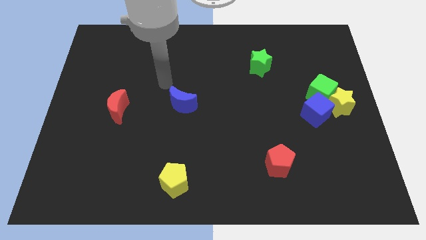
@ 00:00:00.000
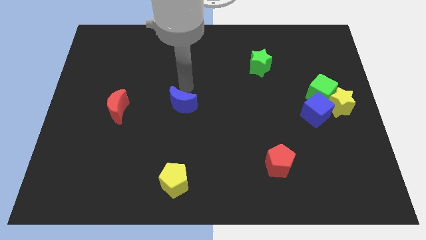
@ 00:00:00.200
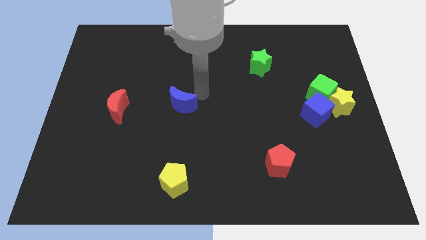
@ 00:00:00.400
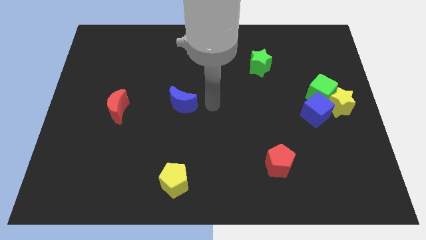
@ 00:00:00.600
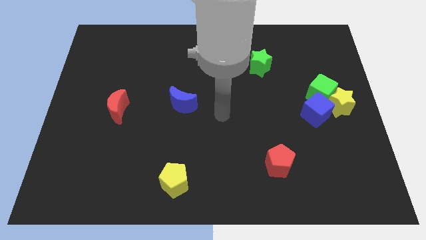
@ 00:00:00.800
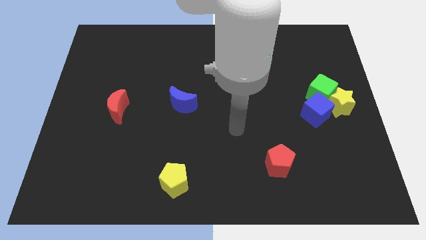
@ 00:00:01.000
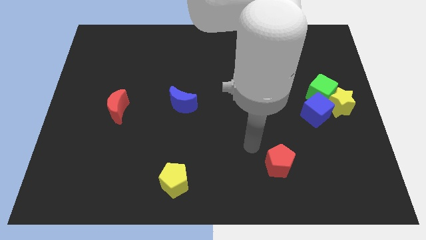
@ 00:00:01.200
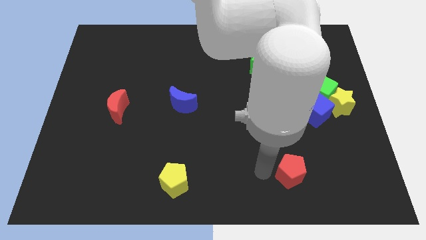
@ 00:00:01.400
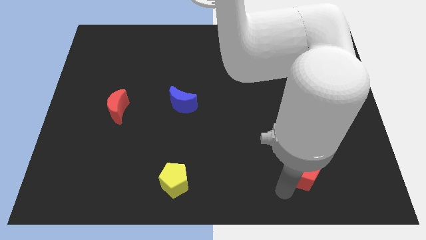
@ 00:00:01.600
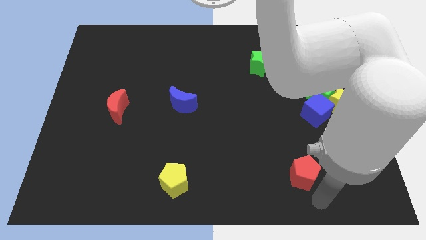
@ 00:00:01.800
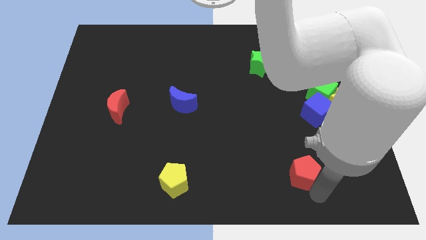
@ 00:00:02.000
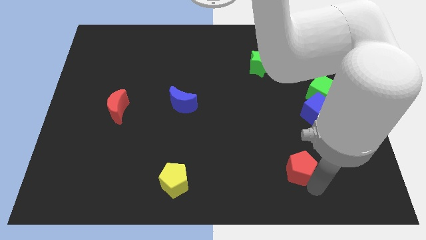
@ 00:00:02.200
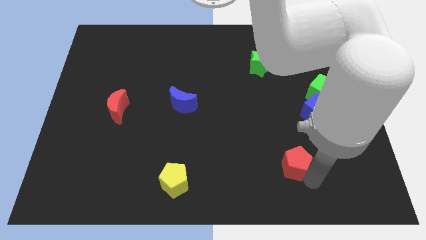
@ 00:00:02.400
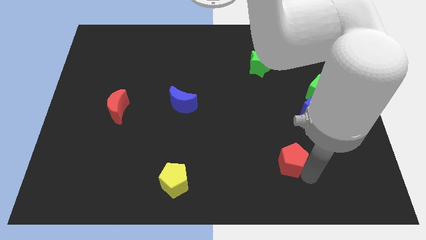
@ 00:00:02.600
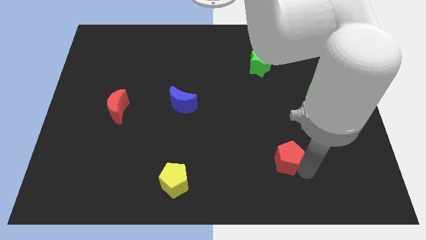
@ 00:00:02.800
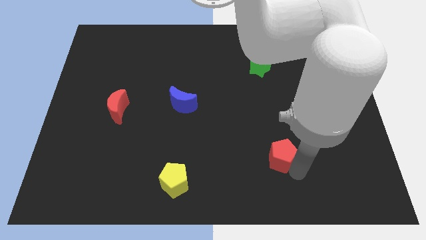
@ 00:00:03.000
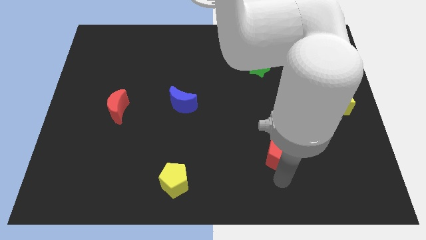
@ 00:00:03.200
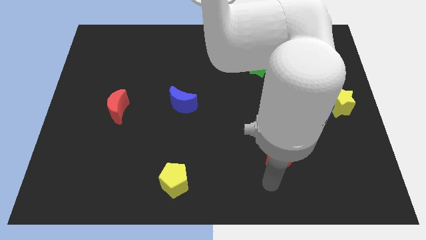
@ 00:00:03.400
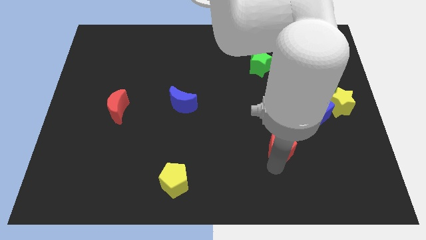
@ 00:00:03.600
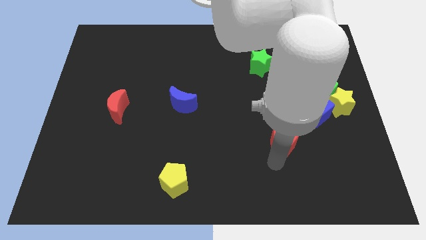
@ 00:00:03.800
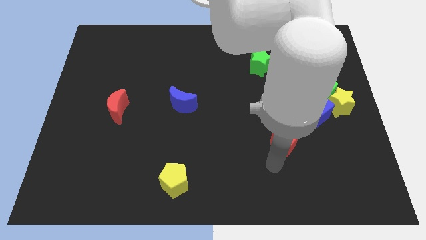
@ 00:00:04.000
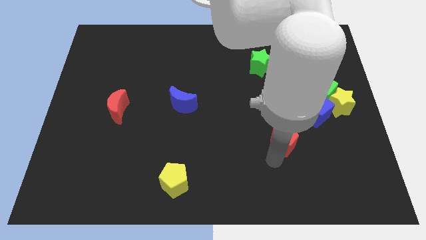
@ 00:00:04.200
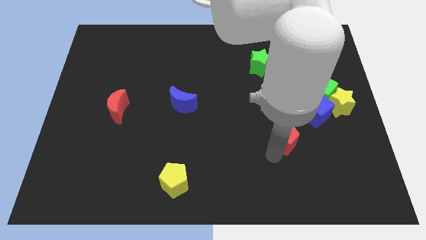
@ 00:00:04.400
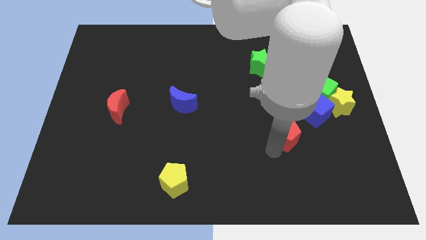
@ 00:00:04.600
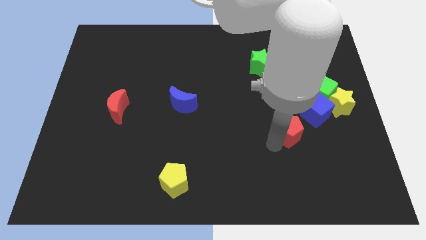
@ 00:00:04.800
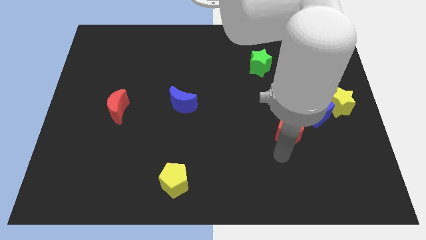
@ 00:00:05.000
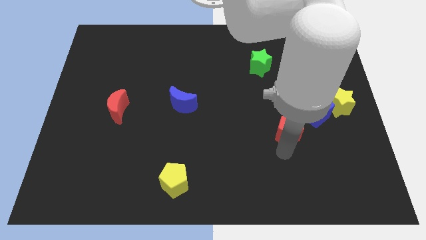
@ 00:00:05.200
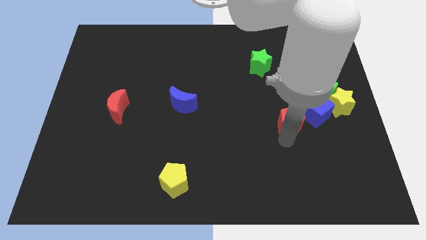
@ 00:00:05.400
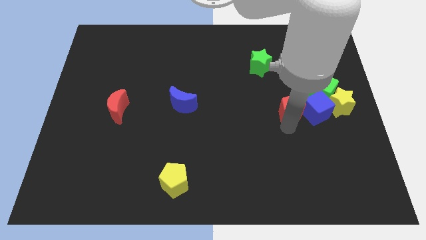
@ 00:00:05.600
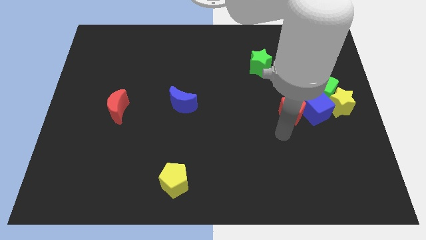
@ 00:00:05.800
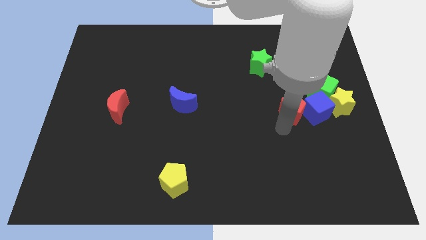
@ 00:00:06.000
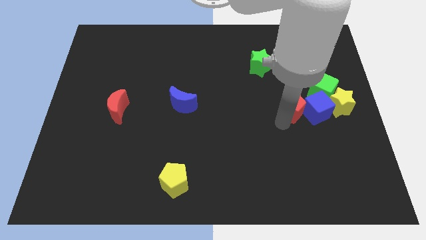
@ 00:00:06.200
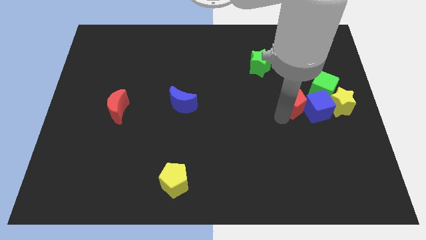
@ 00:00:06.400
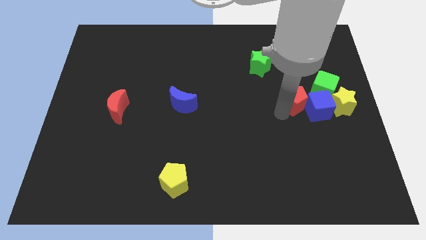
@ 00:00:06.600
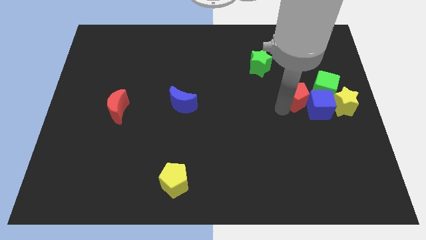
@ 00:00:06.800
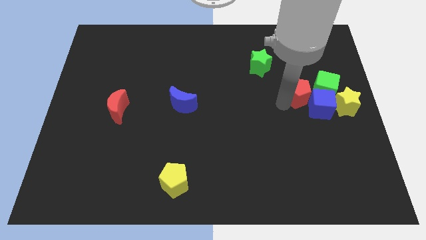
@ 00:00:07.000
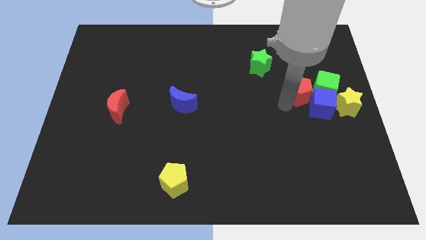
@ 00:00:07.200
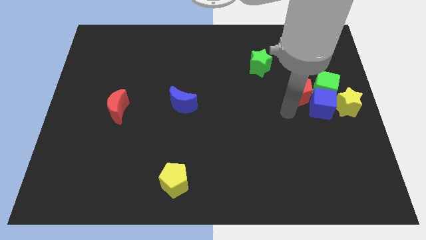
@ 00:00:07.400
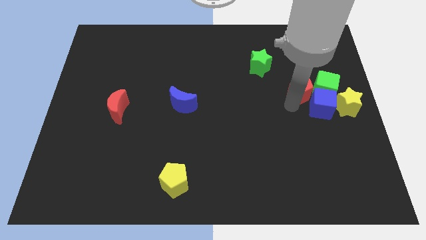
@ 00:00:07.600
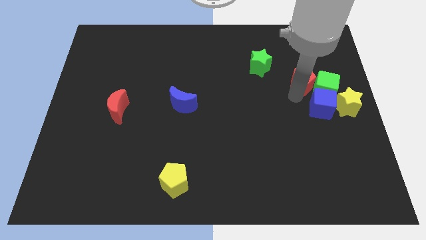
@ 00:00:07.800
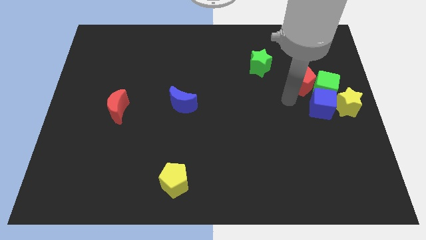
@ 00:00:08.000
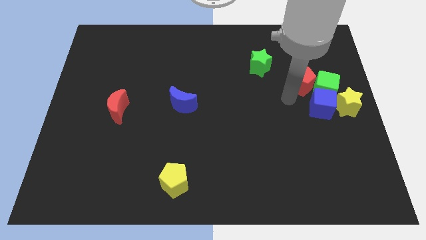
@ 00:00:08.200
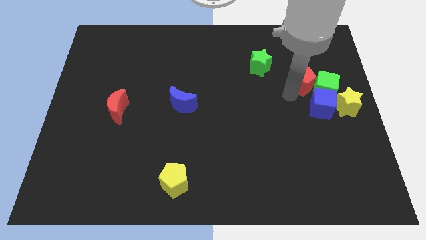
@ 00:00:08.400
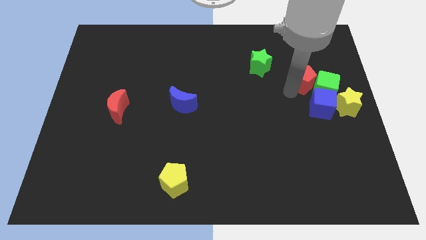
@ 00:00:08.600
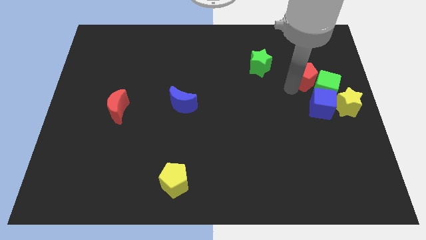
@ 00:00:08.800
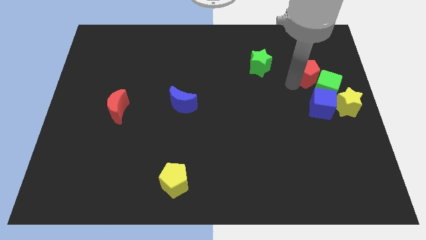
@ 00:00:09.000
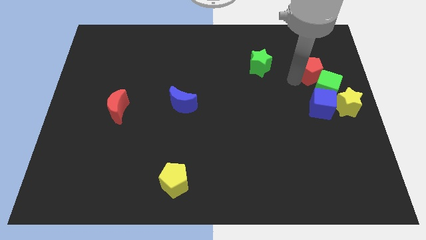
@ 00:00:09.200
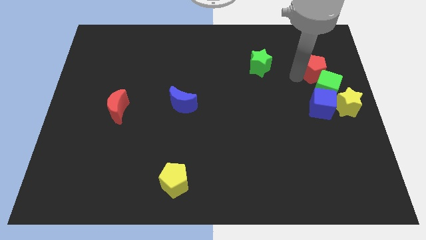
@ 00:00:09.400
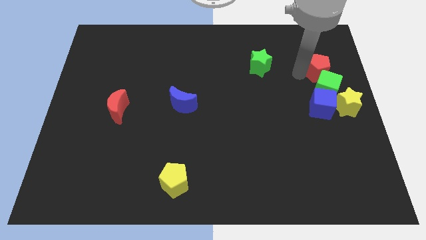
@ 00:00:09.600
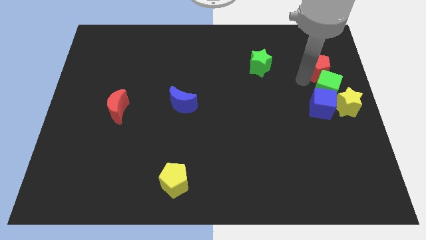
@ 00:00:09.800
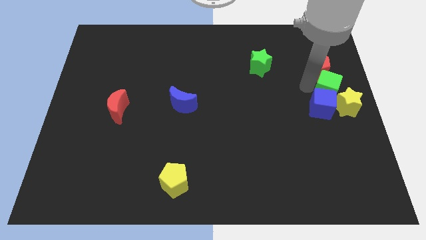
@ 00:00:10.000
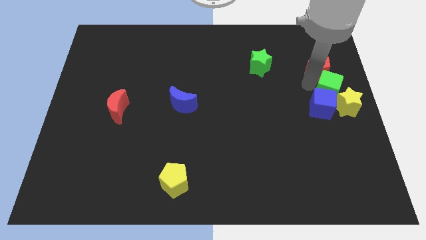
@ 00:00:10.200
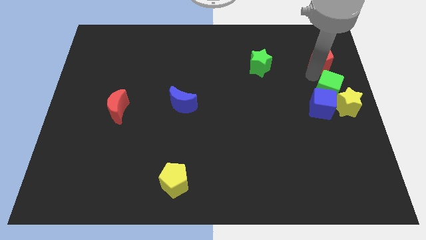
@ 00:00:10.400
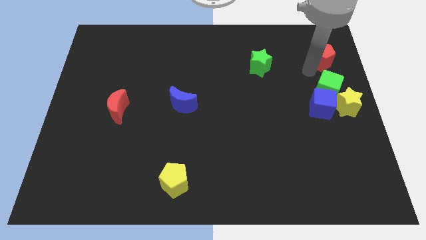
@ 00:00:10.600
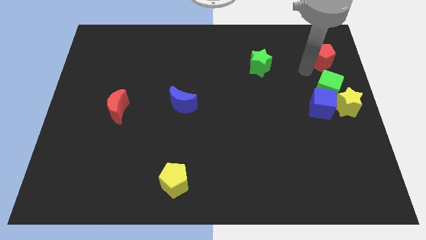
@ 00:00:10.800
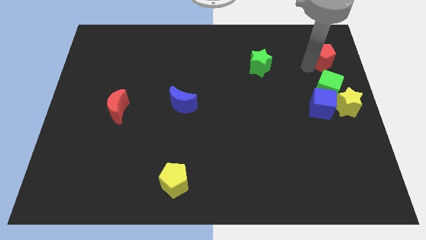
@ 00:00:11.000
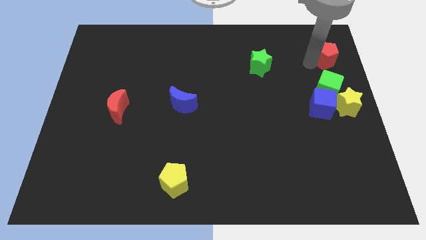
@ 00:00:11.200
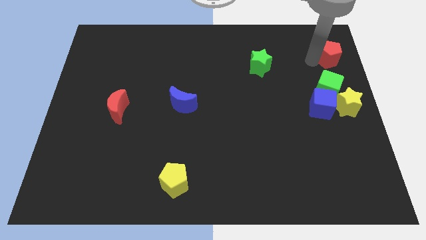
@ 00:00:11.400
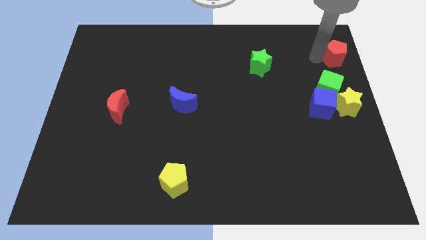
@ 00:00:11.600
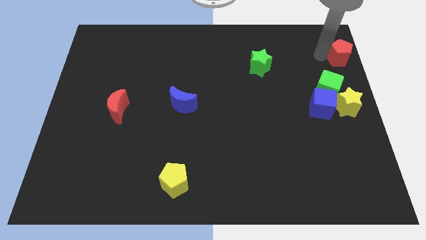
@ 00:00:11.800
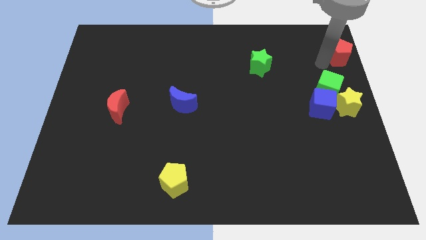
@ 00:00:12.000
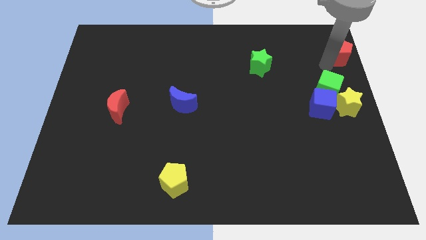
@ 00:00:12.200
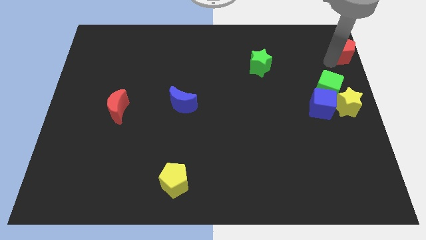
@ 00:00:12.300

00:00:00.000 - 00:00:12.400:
put the red pentagon to the top right
